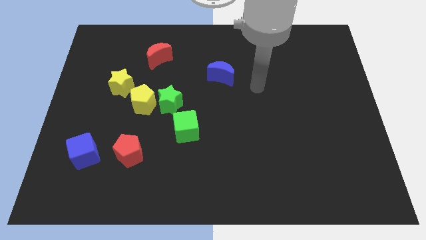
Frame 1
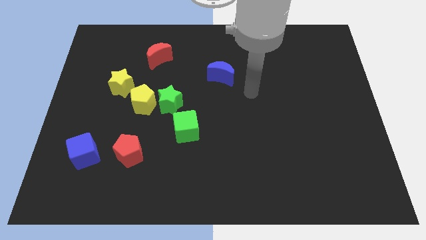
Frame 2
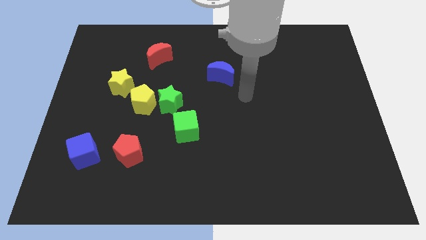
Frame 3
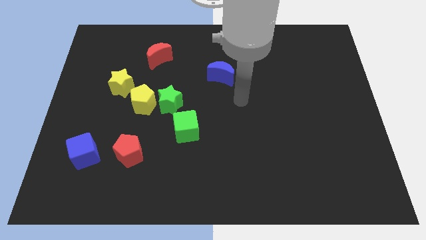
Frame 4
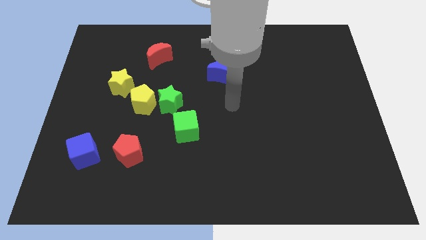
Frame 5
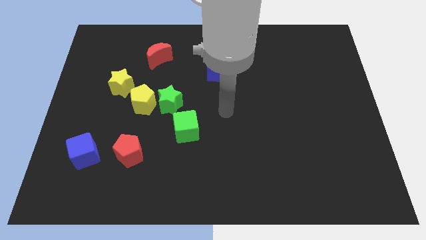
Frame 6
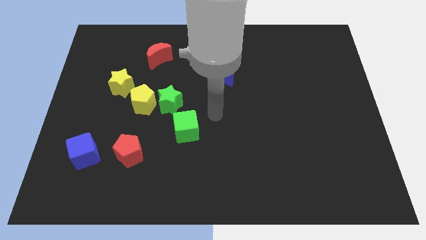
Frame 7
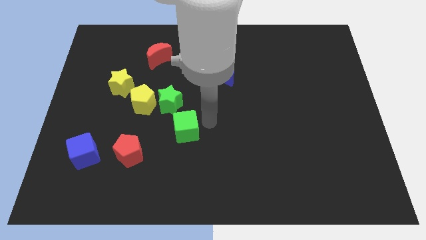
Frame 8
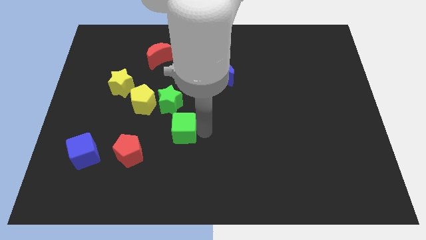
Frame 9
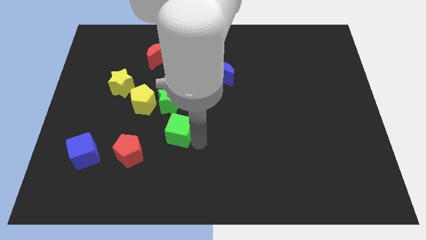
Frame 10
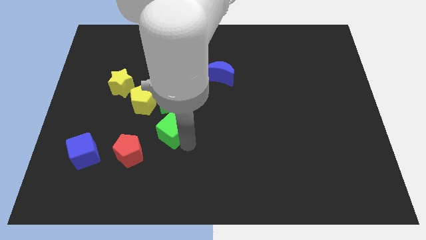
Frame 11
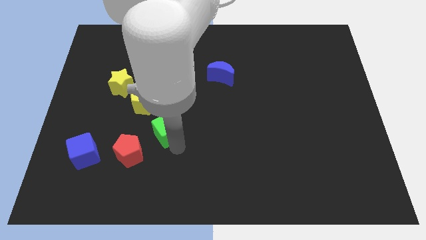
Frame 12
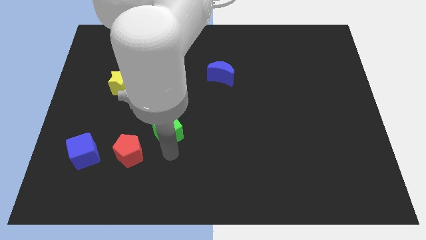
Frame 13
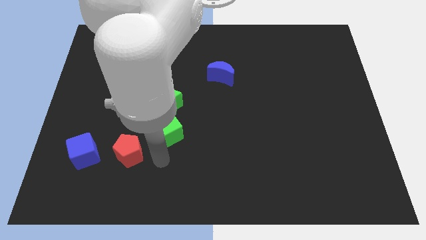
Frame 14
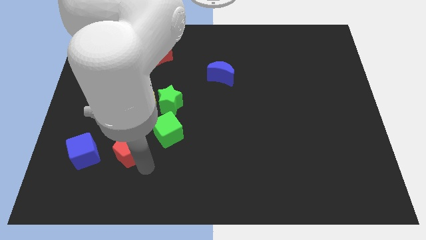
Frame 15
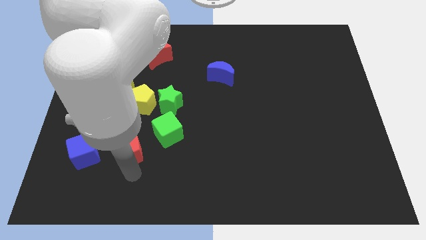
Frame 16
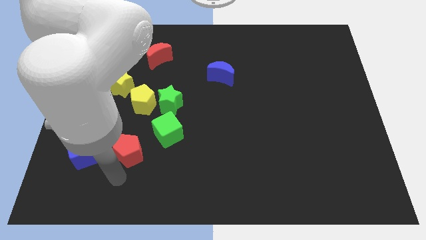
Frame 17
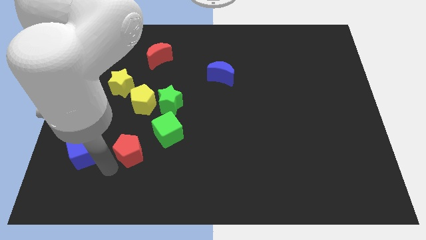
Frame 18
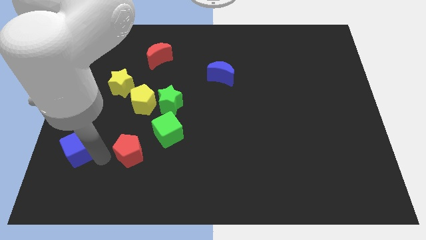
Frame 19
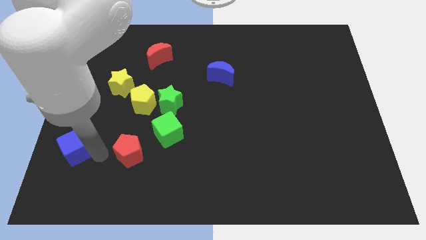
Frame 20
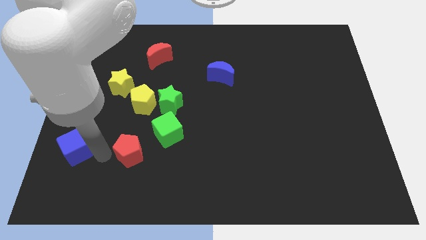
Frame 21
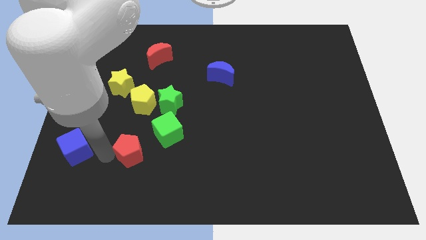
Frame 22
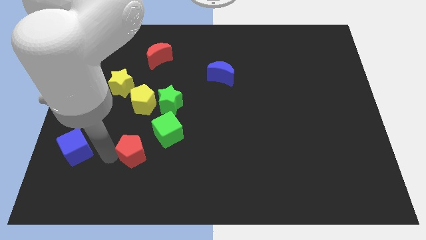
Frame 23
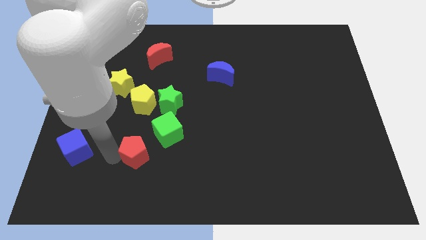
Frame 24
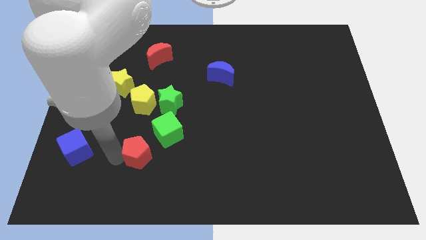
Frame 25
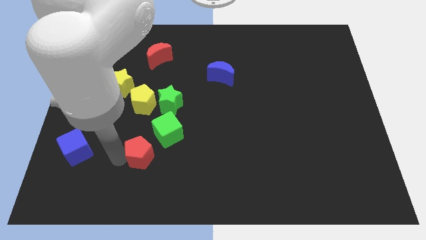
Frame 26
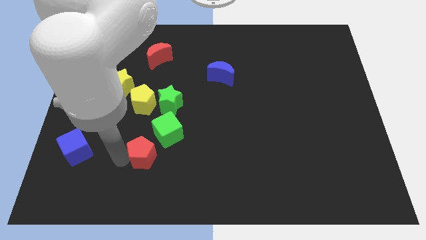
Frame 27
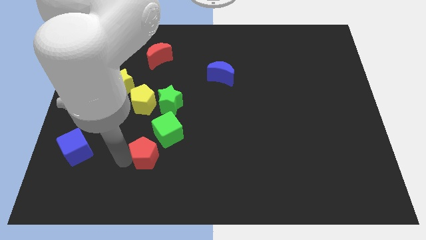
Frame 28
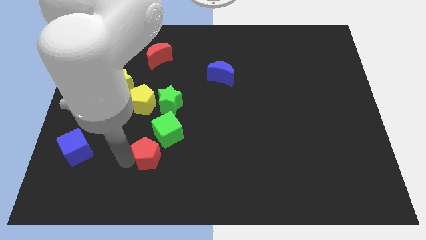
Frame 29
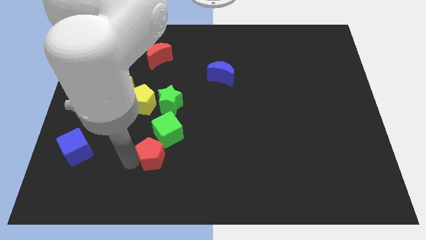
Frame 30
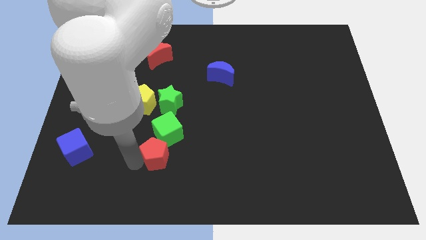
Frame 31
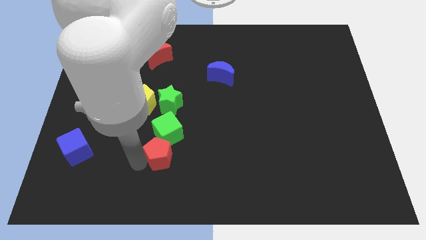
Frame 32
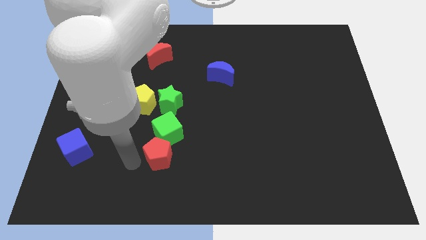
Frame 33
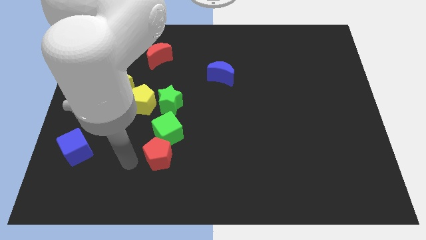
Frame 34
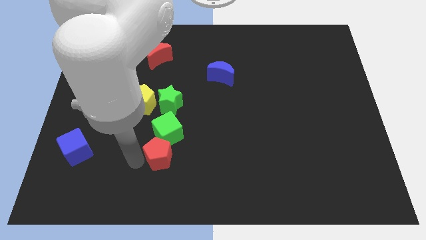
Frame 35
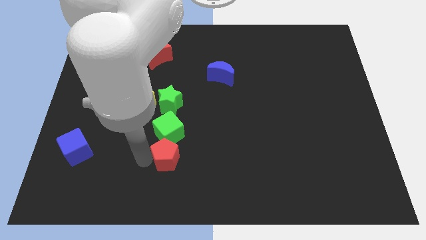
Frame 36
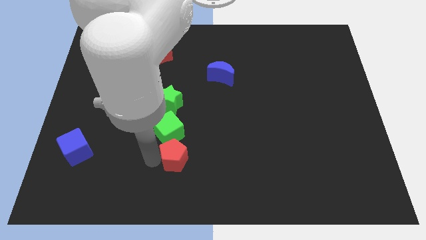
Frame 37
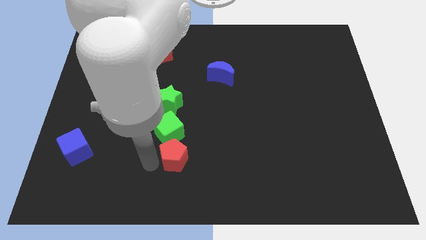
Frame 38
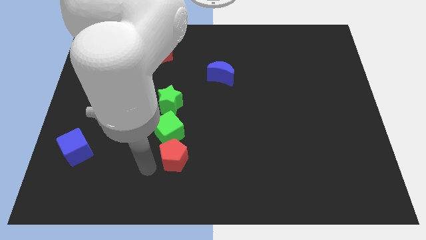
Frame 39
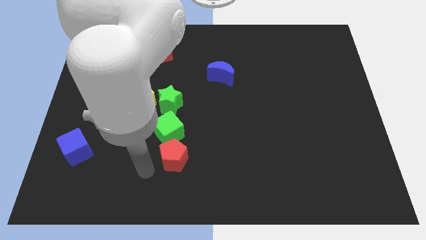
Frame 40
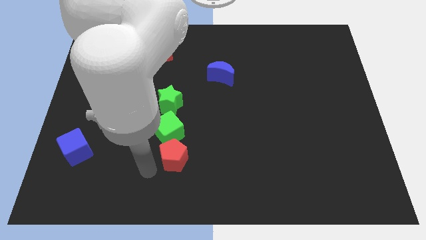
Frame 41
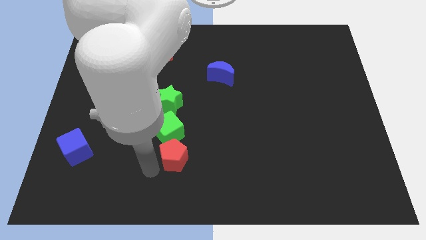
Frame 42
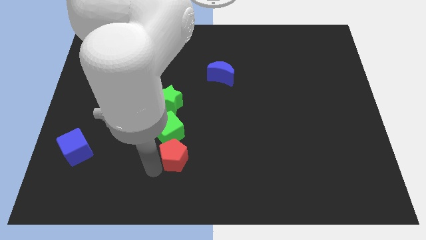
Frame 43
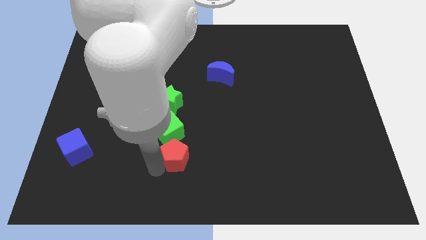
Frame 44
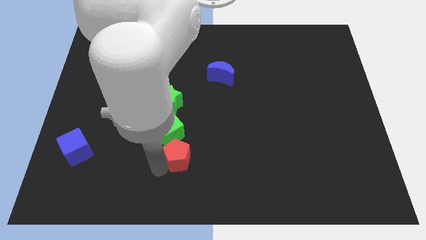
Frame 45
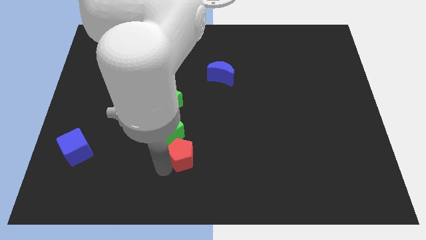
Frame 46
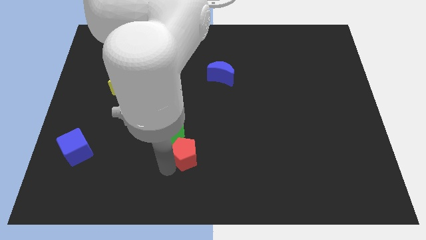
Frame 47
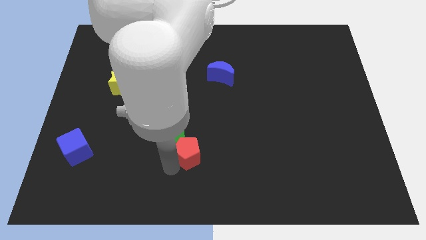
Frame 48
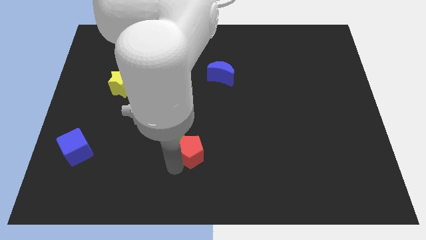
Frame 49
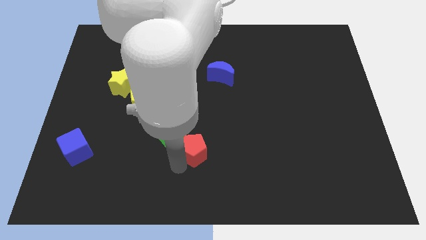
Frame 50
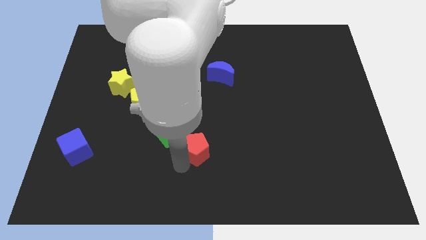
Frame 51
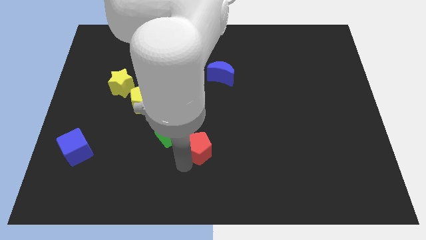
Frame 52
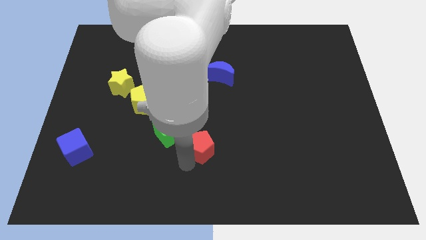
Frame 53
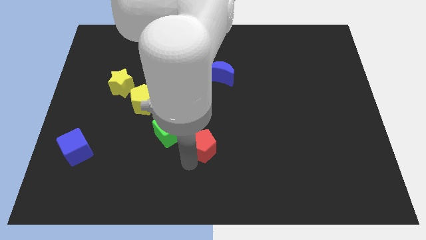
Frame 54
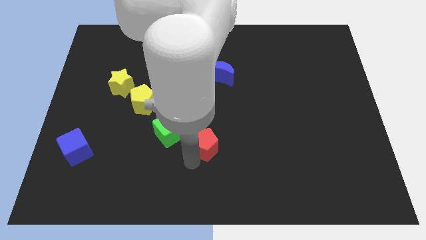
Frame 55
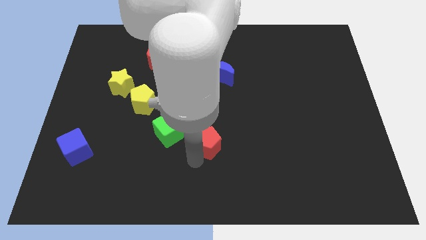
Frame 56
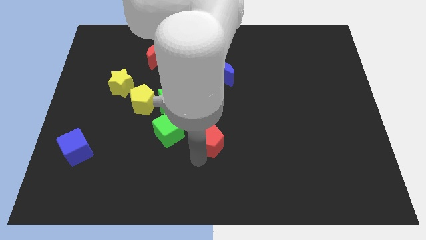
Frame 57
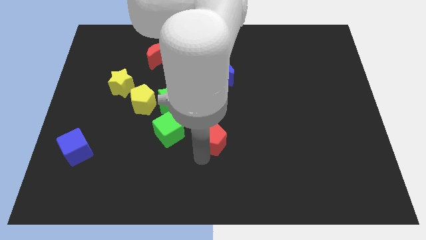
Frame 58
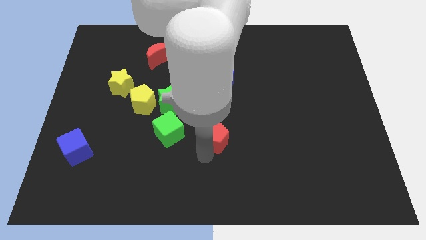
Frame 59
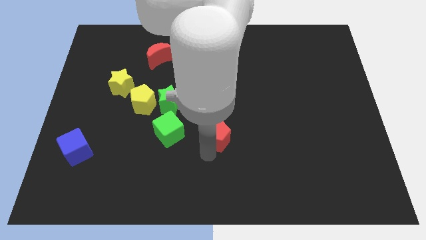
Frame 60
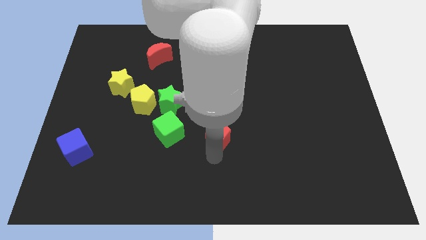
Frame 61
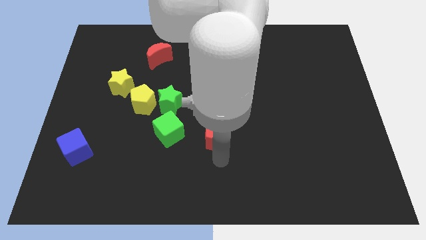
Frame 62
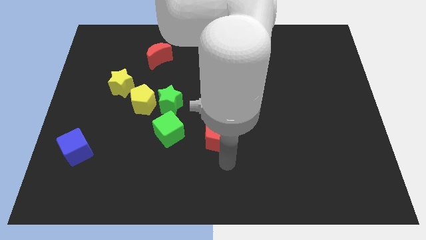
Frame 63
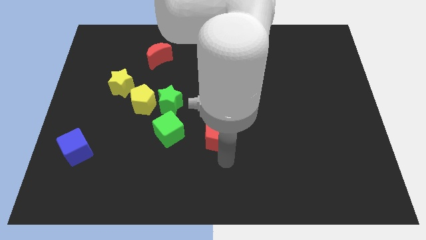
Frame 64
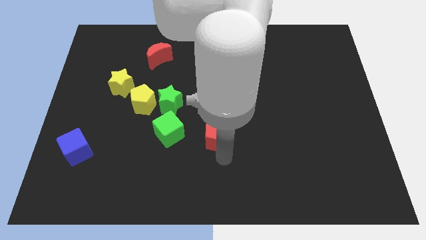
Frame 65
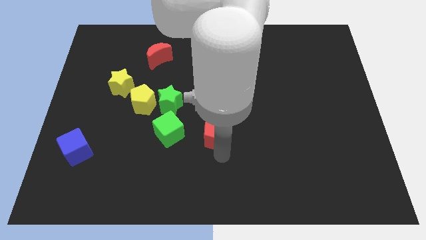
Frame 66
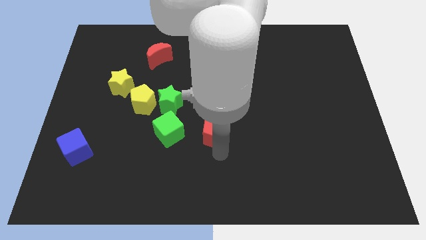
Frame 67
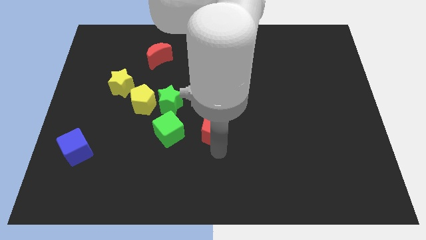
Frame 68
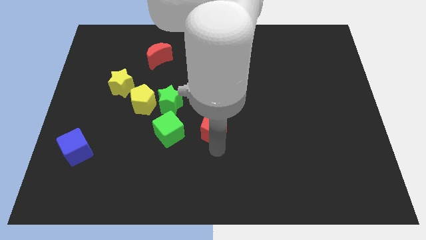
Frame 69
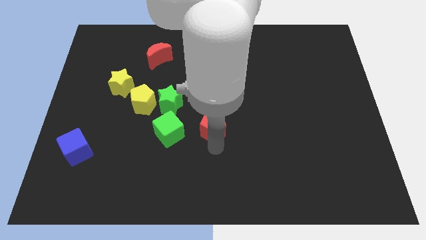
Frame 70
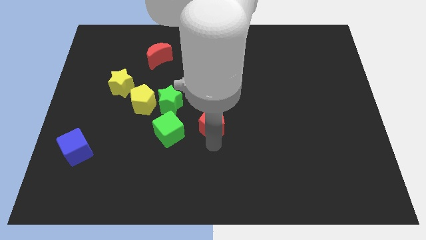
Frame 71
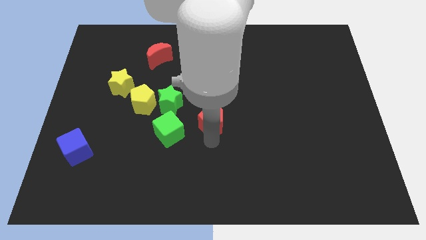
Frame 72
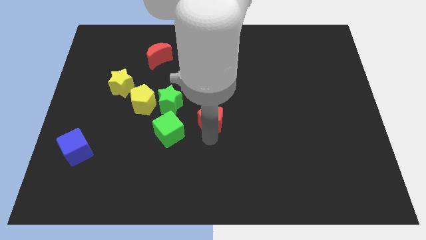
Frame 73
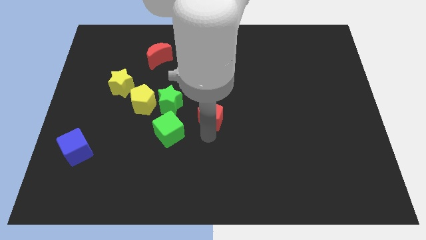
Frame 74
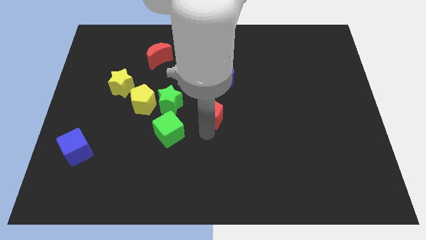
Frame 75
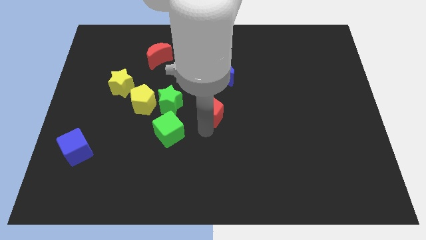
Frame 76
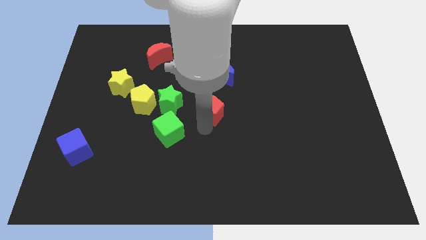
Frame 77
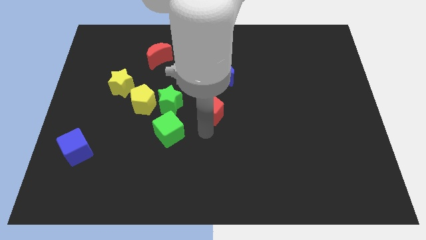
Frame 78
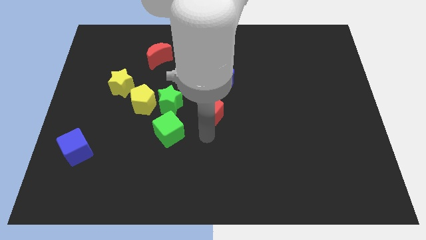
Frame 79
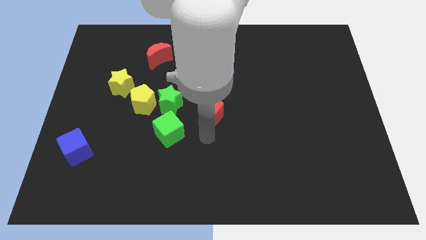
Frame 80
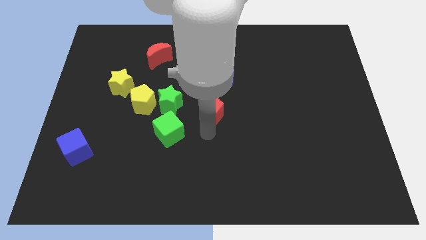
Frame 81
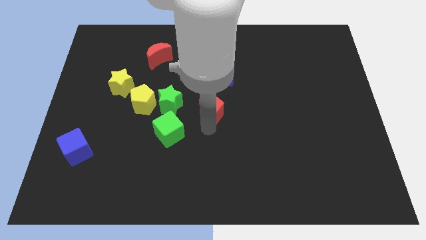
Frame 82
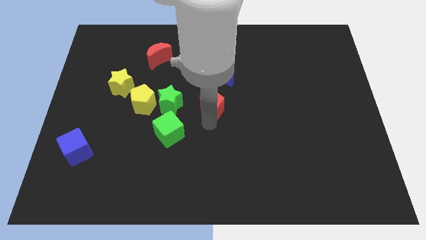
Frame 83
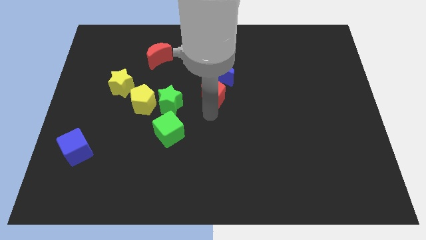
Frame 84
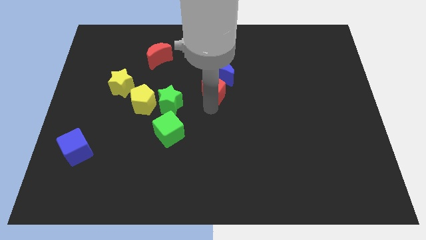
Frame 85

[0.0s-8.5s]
push the red pentagon close to the blue moon
